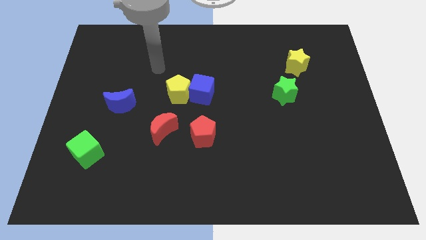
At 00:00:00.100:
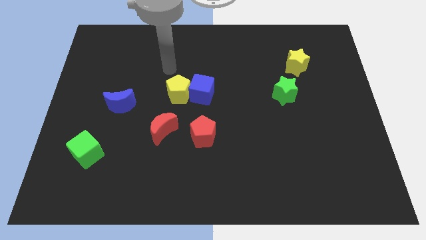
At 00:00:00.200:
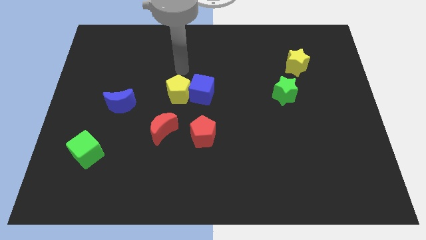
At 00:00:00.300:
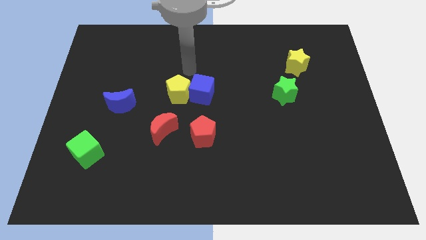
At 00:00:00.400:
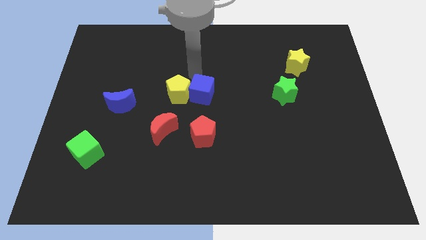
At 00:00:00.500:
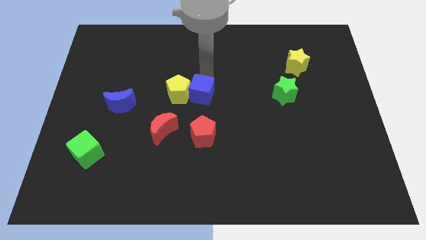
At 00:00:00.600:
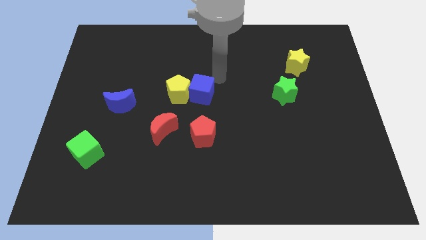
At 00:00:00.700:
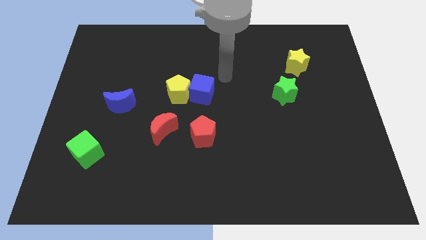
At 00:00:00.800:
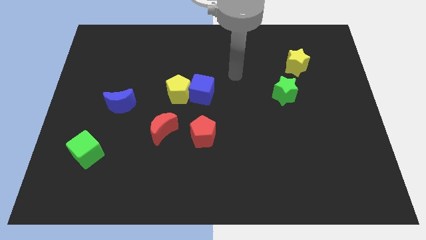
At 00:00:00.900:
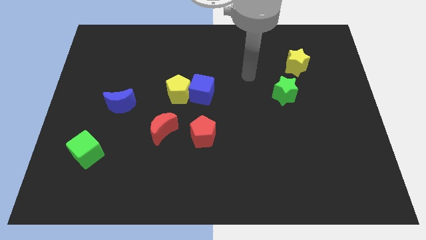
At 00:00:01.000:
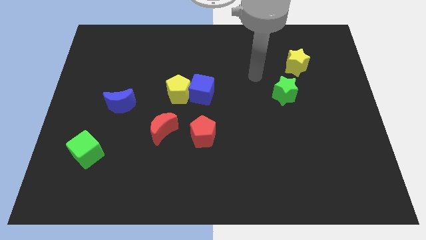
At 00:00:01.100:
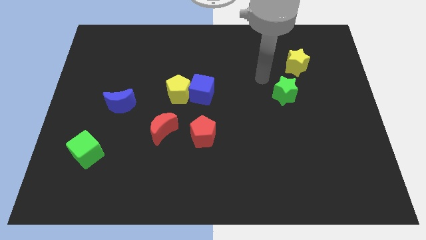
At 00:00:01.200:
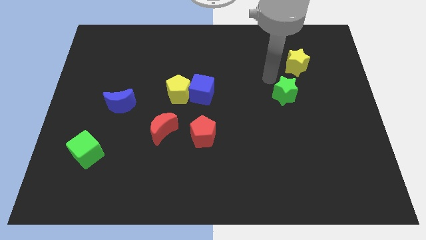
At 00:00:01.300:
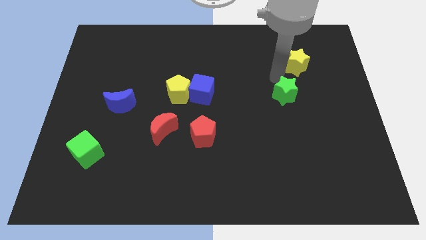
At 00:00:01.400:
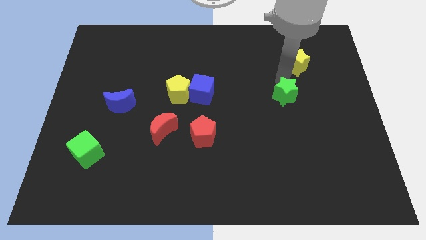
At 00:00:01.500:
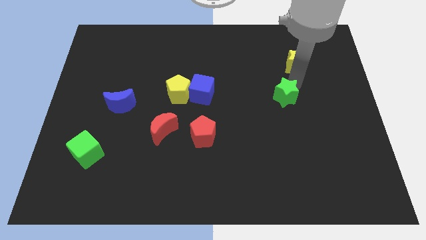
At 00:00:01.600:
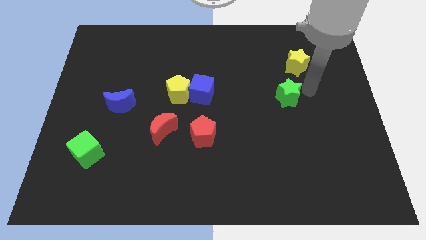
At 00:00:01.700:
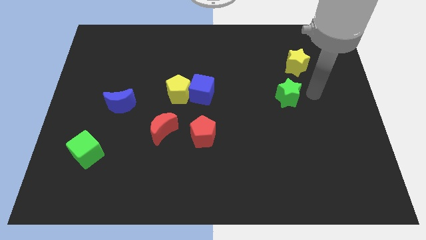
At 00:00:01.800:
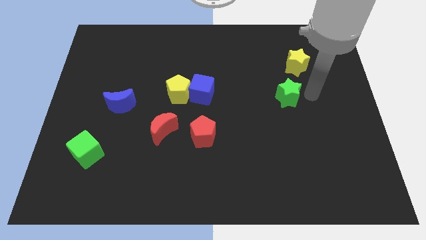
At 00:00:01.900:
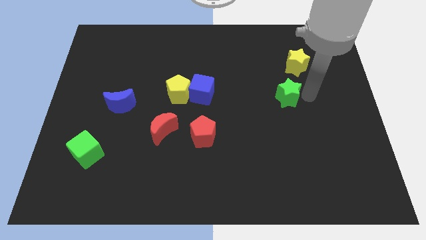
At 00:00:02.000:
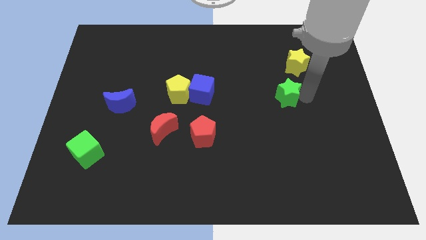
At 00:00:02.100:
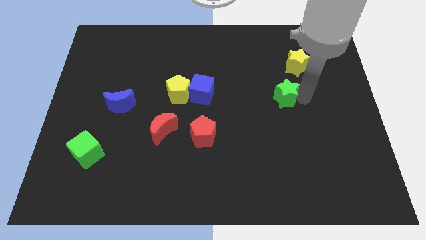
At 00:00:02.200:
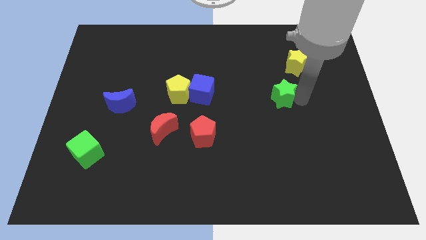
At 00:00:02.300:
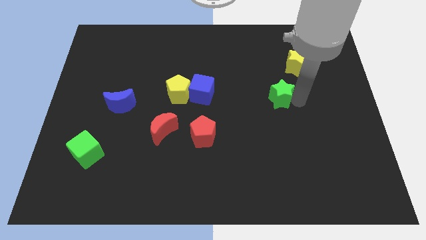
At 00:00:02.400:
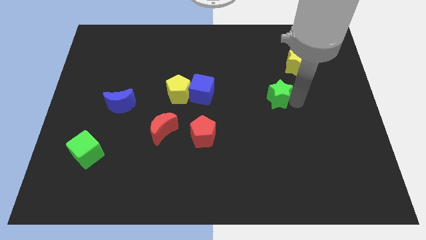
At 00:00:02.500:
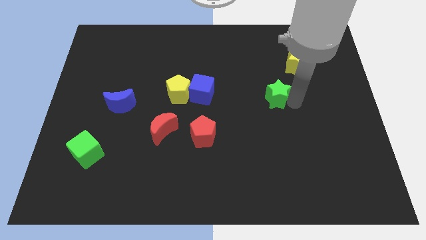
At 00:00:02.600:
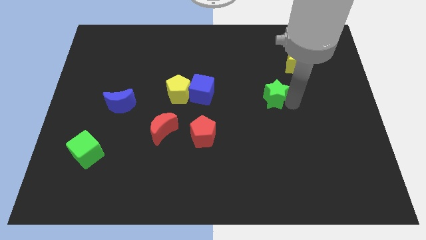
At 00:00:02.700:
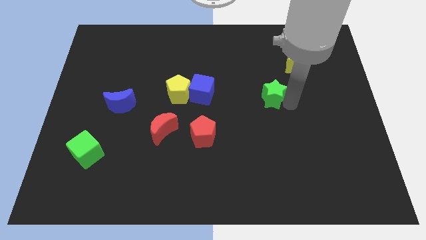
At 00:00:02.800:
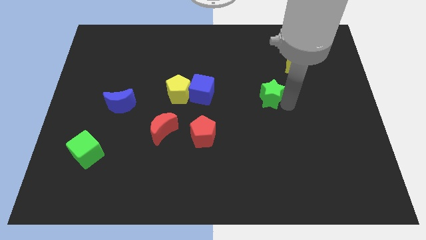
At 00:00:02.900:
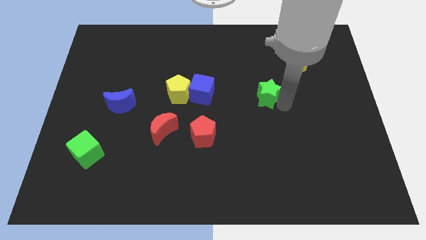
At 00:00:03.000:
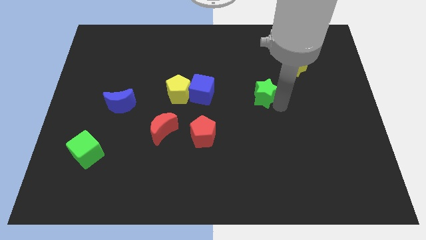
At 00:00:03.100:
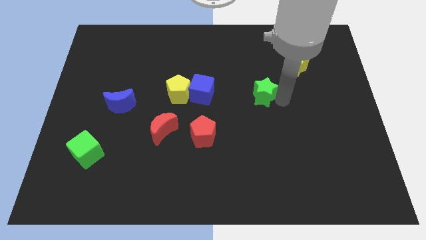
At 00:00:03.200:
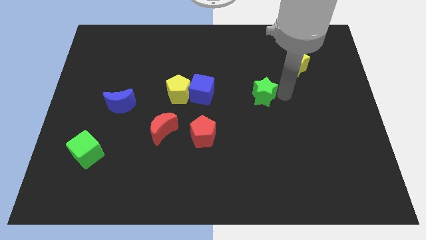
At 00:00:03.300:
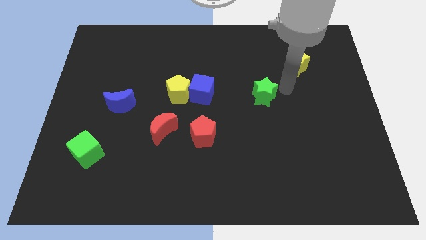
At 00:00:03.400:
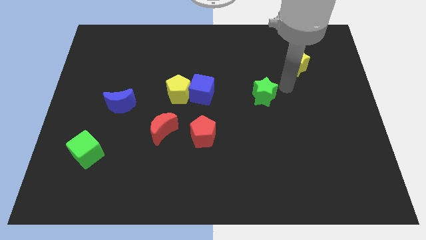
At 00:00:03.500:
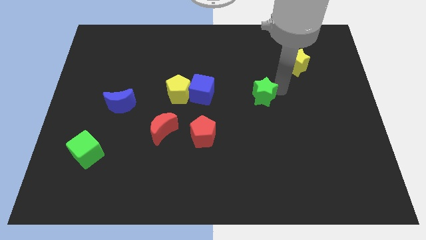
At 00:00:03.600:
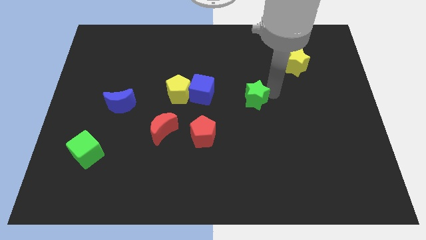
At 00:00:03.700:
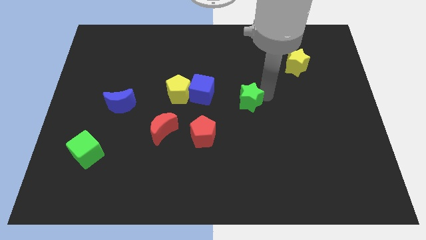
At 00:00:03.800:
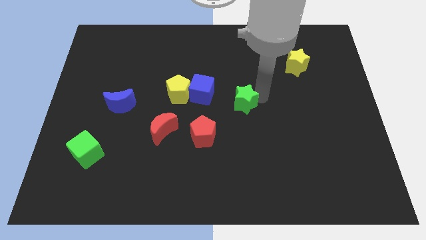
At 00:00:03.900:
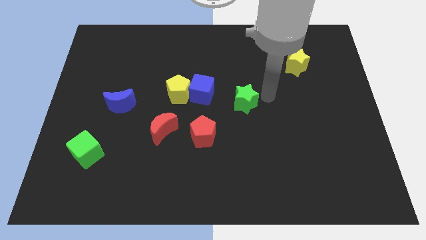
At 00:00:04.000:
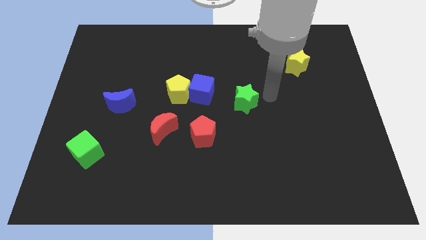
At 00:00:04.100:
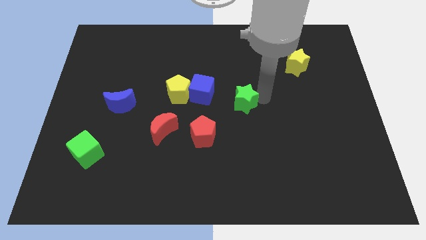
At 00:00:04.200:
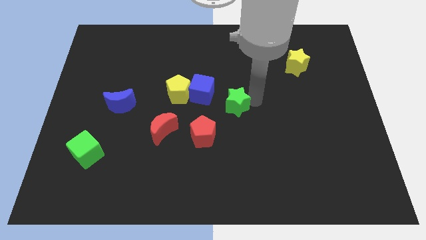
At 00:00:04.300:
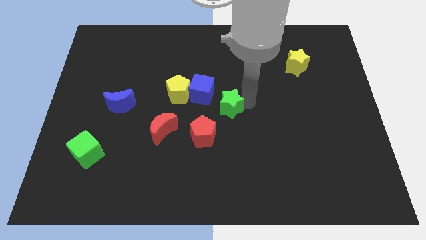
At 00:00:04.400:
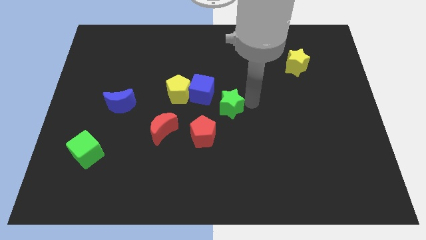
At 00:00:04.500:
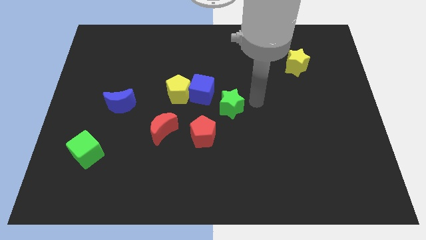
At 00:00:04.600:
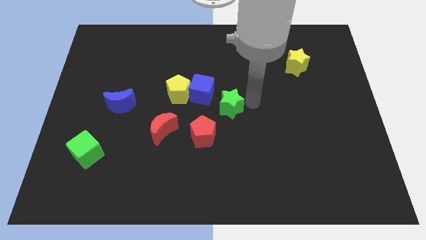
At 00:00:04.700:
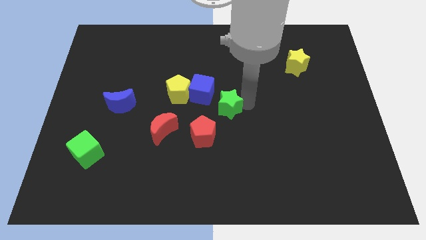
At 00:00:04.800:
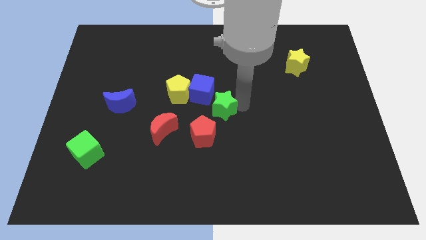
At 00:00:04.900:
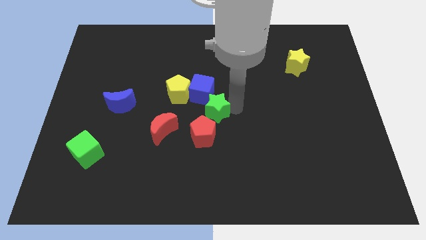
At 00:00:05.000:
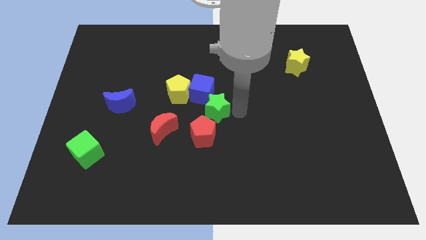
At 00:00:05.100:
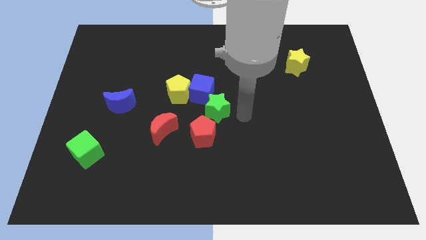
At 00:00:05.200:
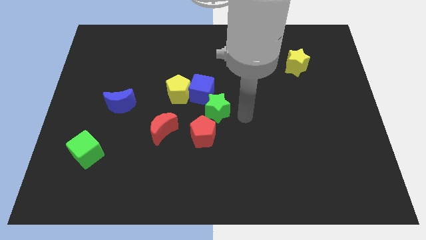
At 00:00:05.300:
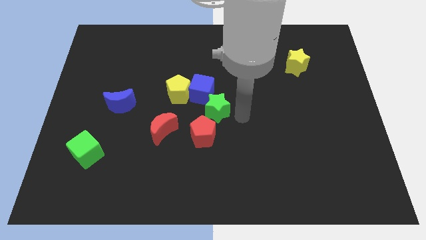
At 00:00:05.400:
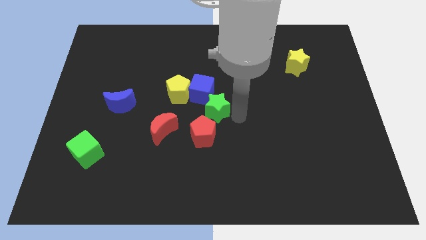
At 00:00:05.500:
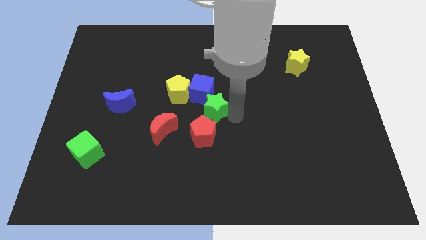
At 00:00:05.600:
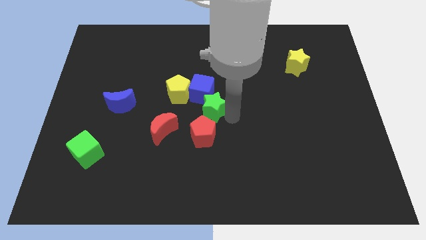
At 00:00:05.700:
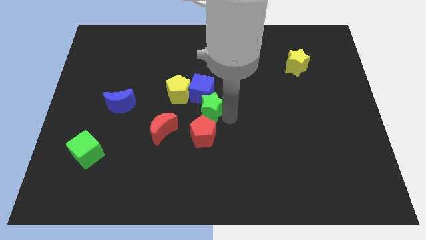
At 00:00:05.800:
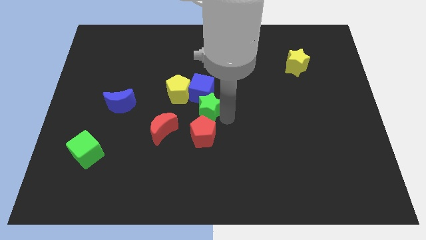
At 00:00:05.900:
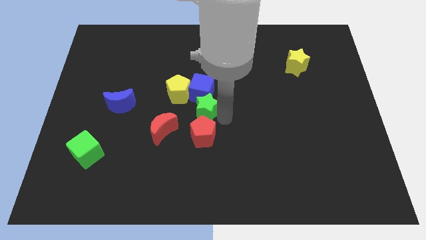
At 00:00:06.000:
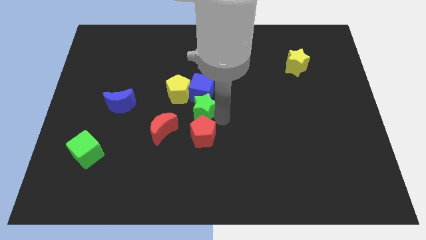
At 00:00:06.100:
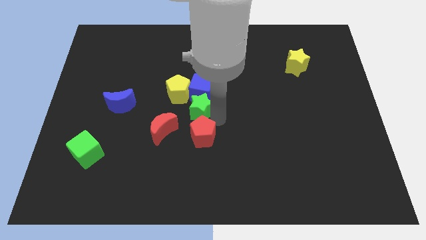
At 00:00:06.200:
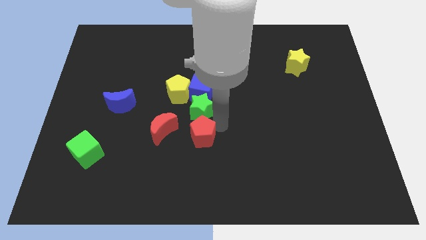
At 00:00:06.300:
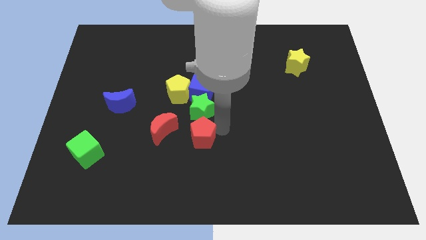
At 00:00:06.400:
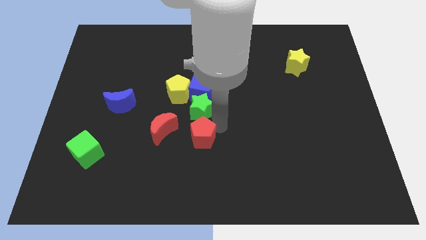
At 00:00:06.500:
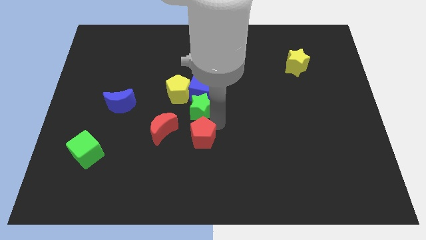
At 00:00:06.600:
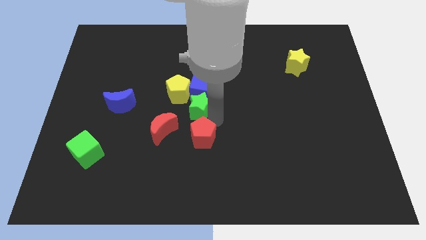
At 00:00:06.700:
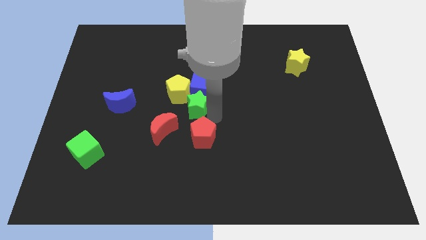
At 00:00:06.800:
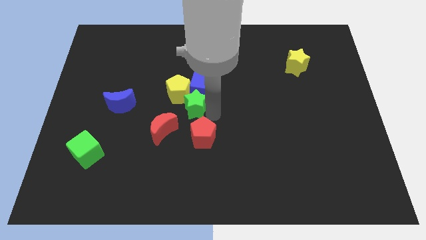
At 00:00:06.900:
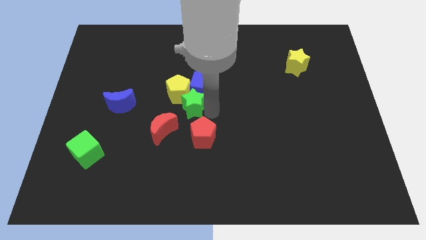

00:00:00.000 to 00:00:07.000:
slide the green star towards the yellow pentagon
